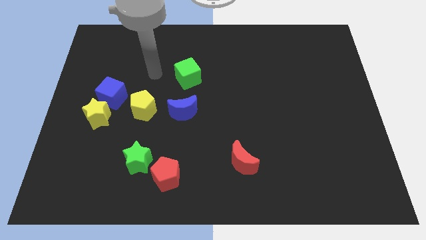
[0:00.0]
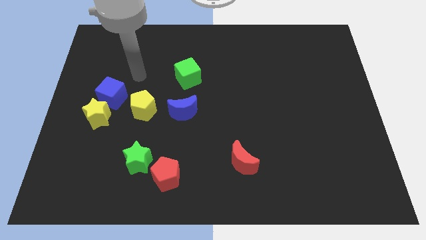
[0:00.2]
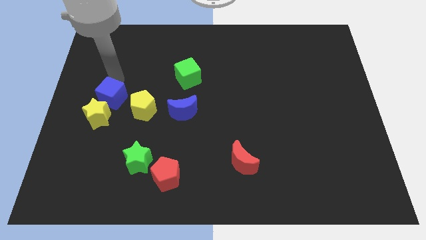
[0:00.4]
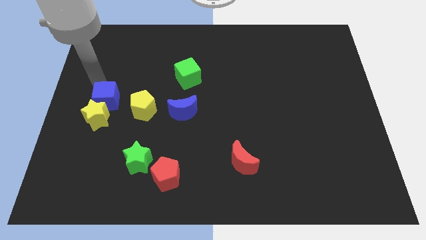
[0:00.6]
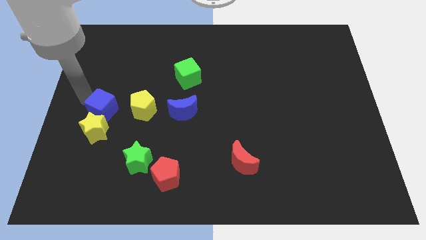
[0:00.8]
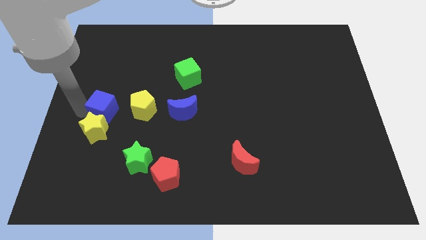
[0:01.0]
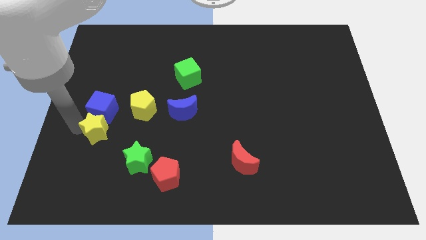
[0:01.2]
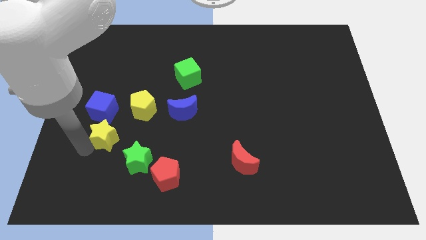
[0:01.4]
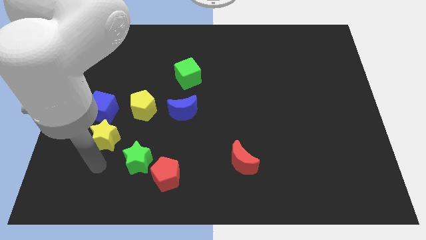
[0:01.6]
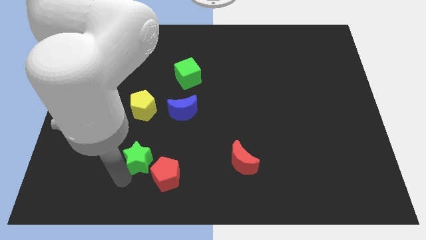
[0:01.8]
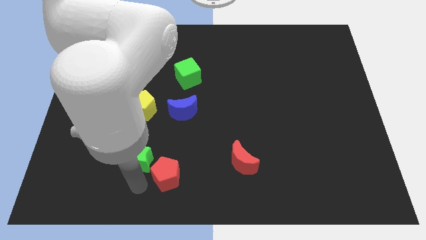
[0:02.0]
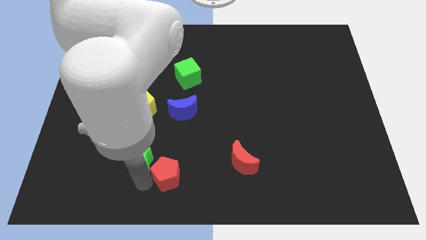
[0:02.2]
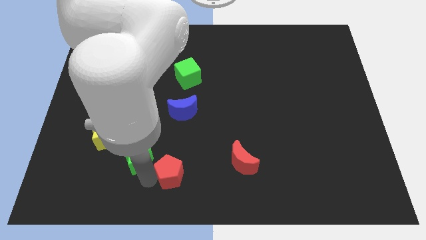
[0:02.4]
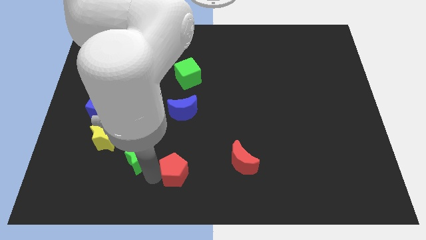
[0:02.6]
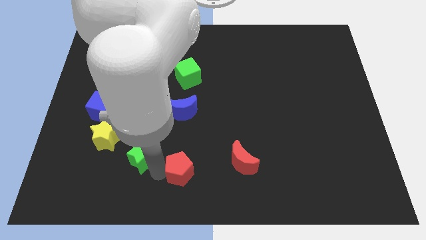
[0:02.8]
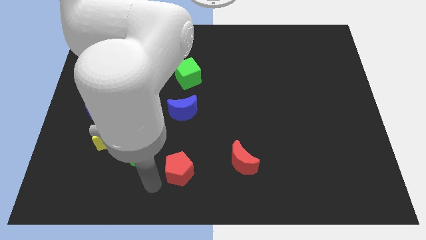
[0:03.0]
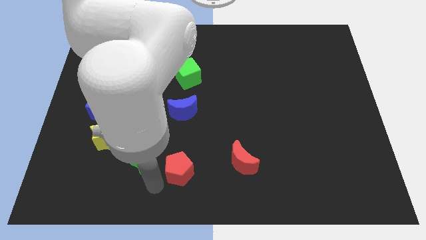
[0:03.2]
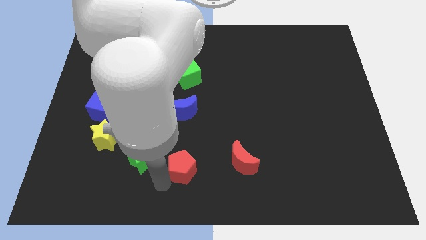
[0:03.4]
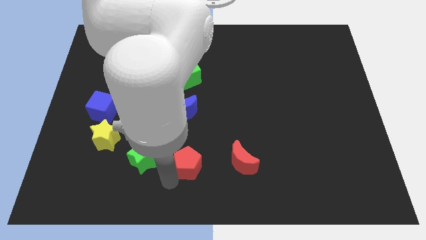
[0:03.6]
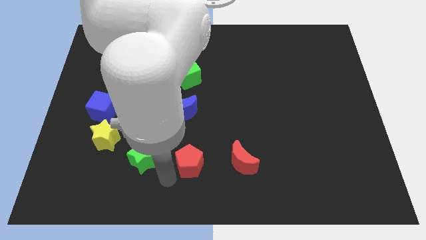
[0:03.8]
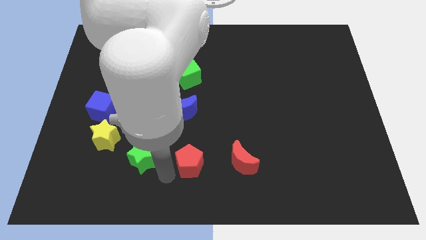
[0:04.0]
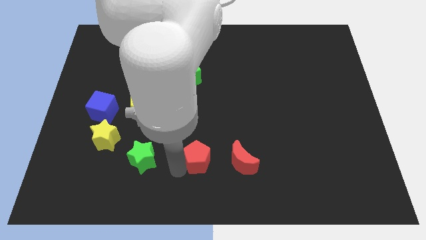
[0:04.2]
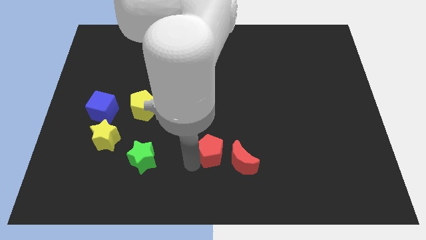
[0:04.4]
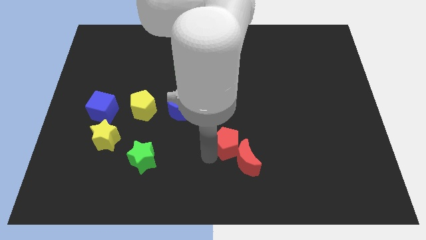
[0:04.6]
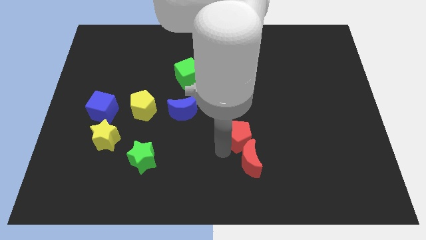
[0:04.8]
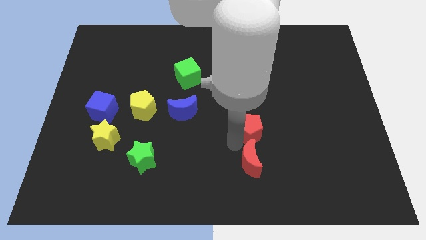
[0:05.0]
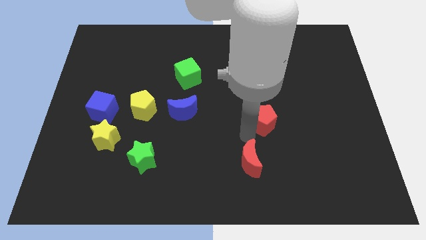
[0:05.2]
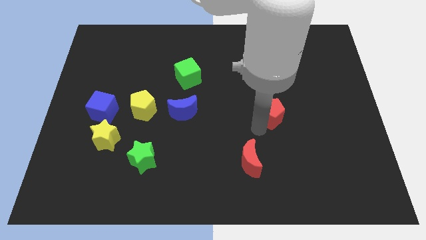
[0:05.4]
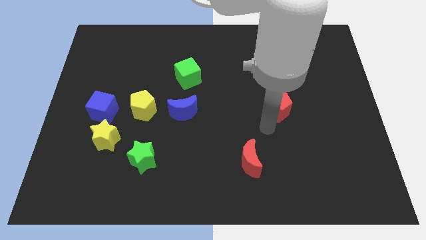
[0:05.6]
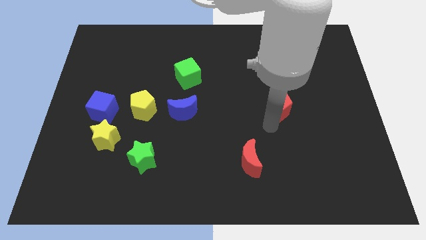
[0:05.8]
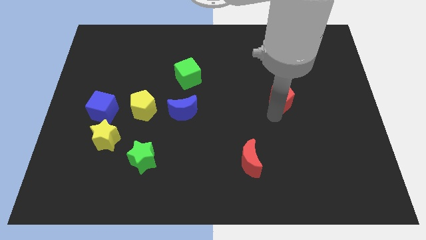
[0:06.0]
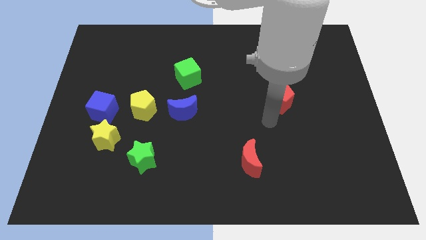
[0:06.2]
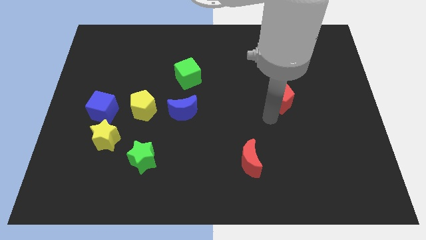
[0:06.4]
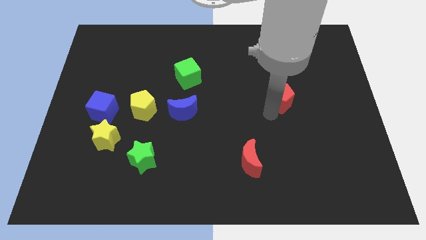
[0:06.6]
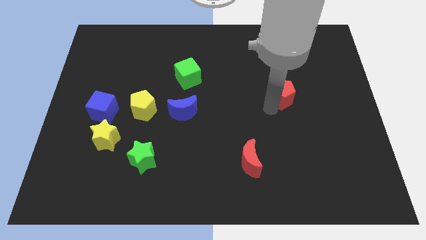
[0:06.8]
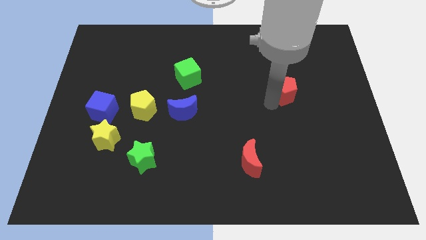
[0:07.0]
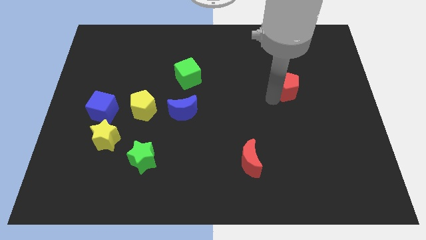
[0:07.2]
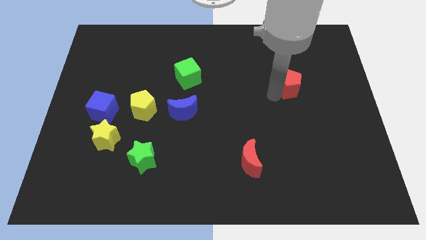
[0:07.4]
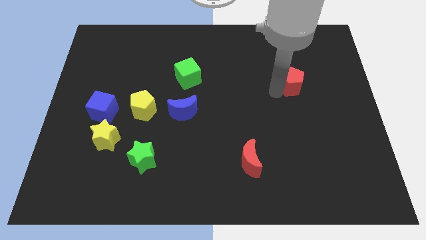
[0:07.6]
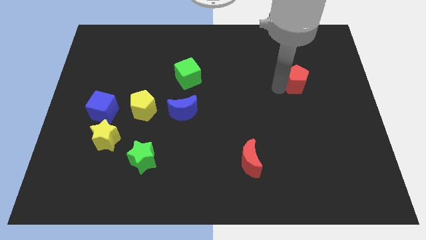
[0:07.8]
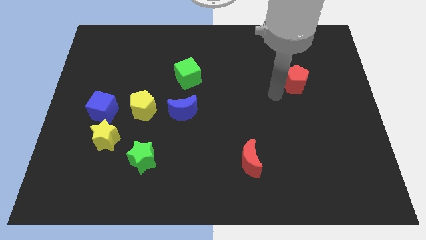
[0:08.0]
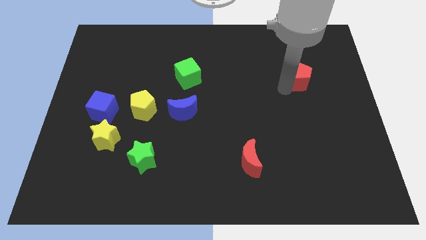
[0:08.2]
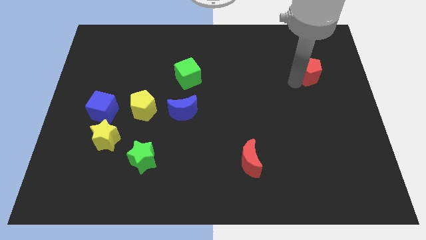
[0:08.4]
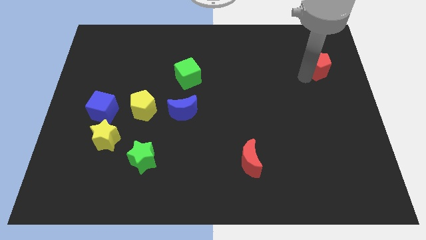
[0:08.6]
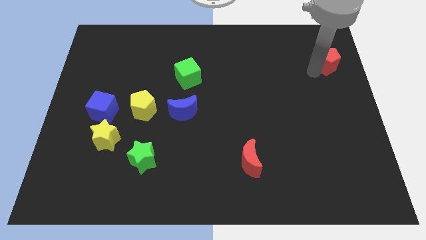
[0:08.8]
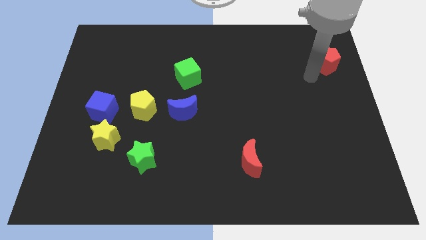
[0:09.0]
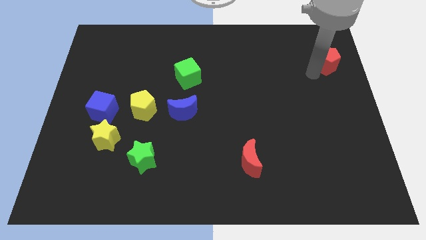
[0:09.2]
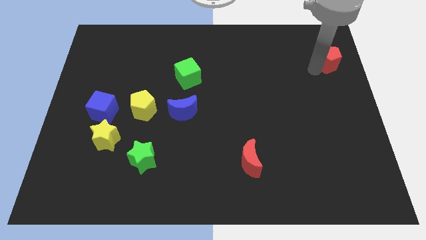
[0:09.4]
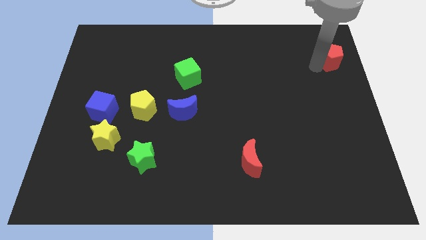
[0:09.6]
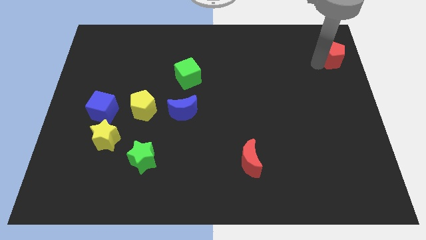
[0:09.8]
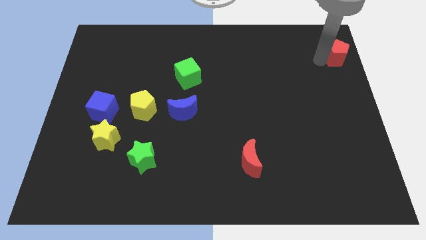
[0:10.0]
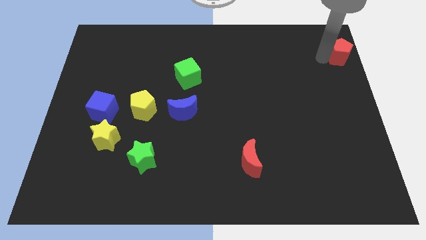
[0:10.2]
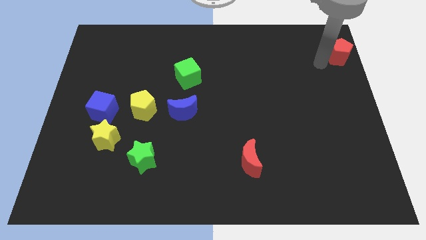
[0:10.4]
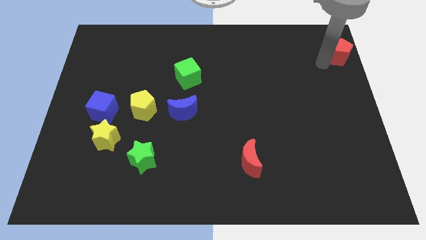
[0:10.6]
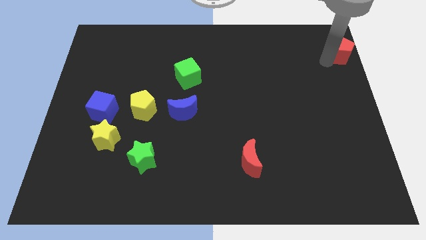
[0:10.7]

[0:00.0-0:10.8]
slide the red pentagon to the top right of the board

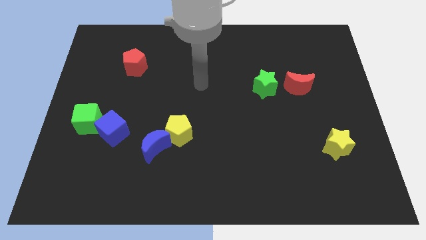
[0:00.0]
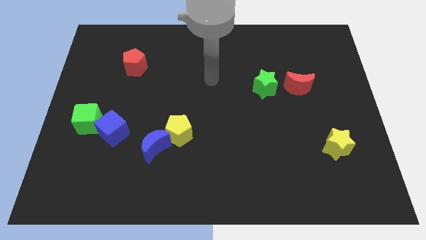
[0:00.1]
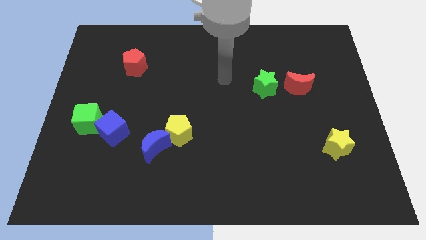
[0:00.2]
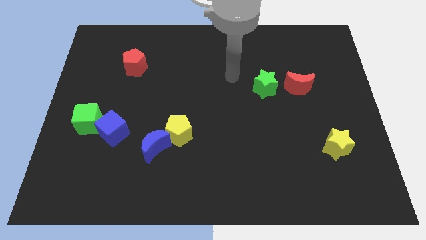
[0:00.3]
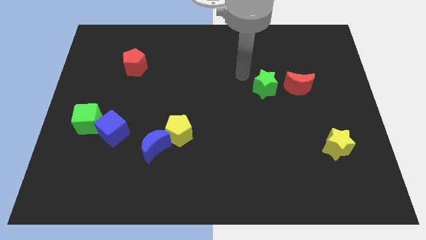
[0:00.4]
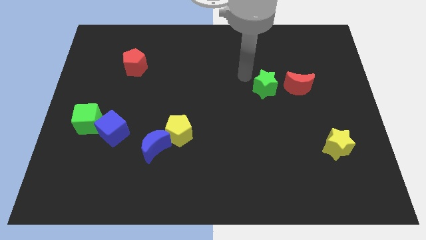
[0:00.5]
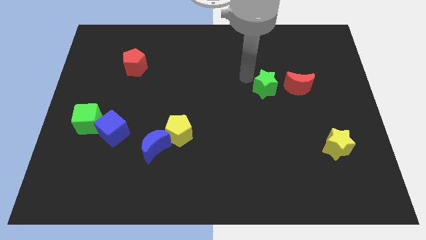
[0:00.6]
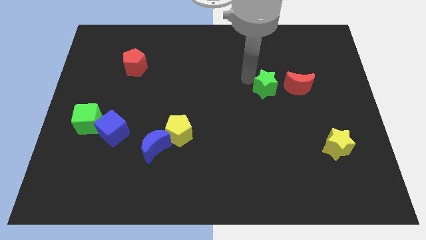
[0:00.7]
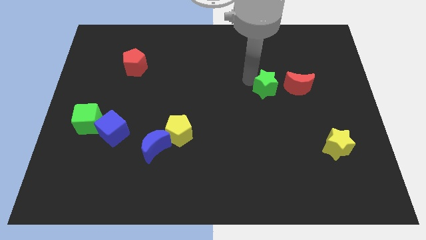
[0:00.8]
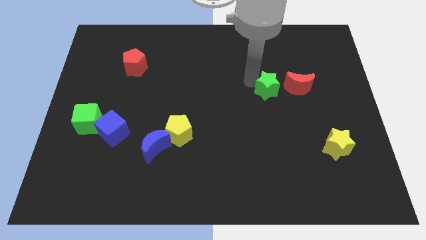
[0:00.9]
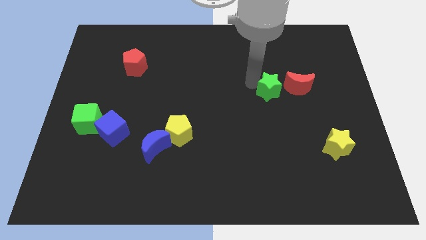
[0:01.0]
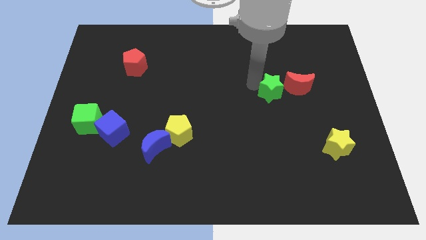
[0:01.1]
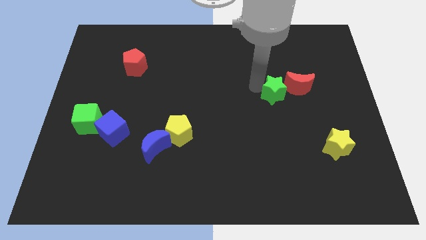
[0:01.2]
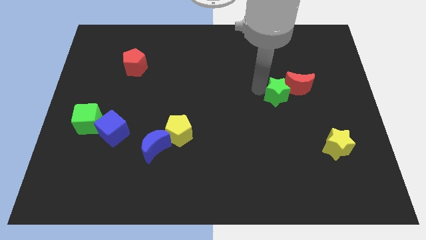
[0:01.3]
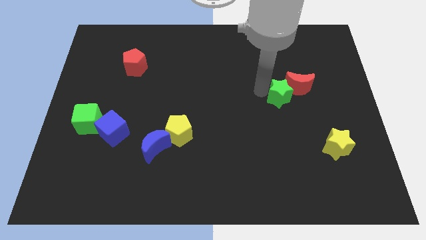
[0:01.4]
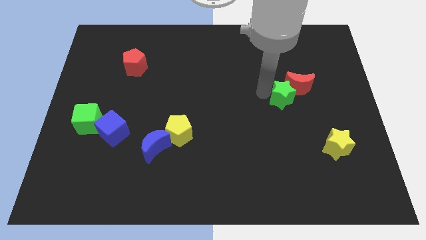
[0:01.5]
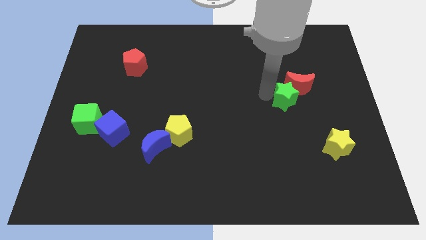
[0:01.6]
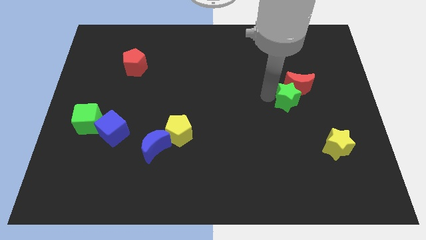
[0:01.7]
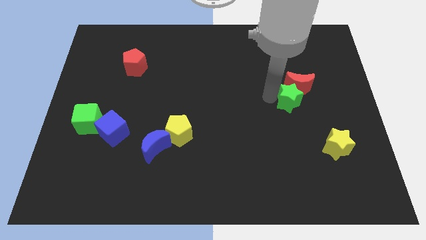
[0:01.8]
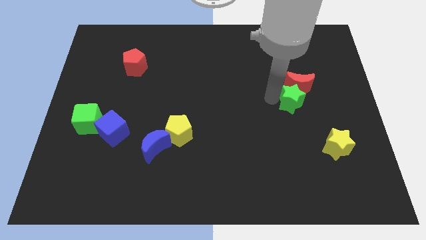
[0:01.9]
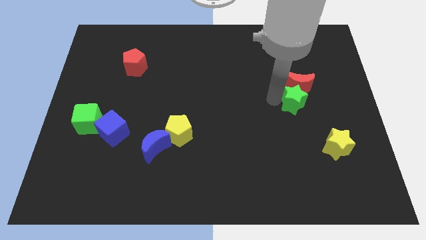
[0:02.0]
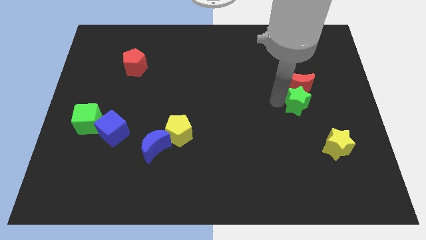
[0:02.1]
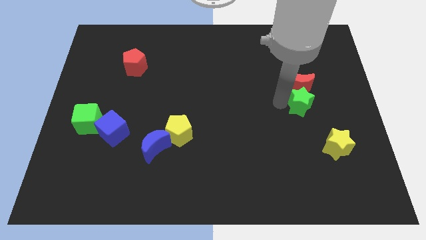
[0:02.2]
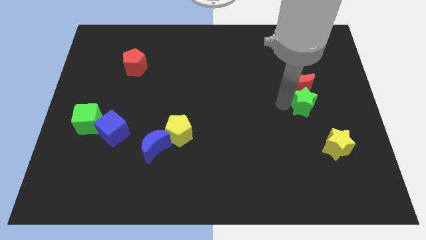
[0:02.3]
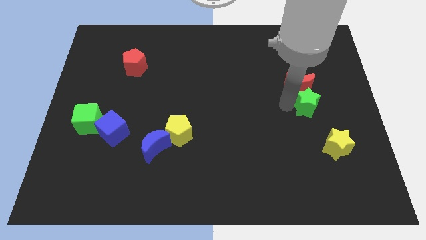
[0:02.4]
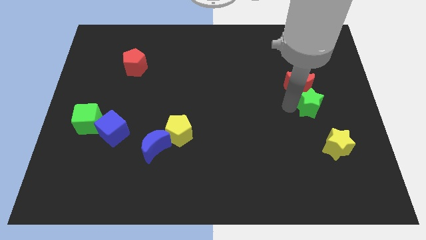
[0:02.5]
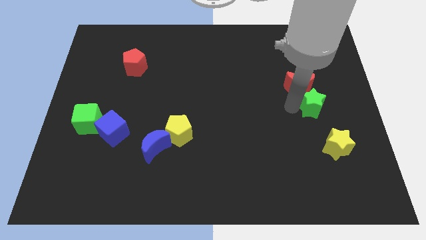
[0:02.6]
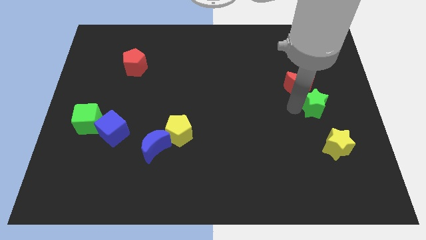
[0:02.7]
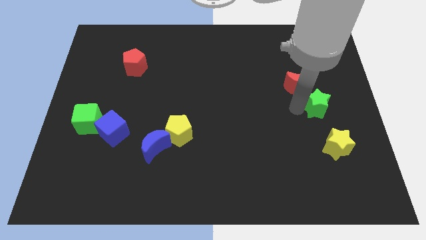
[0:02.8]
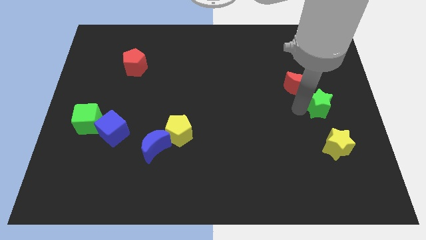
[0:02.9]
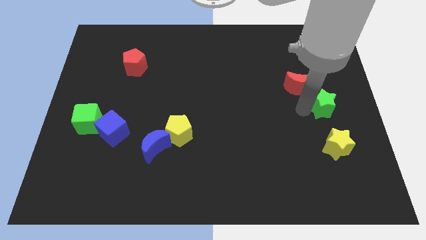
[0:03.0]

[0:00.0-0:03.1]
move the green star to the right side of the board
